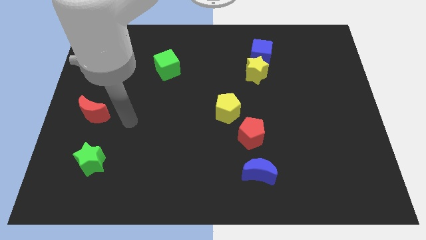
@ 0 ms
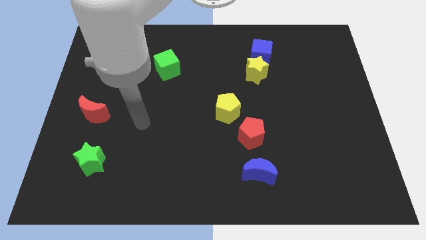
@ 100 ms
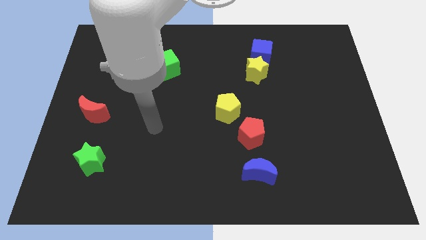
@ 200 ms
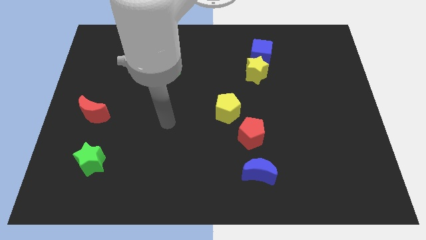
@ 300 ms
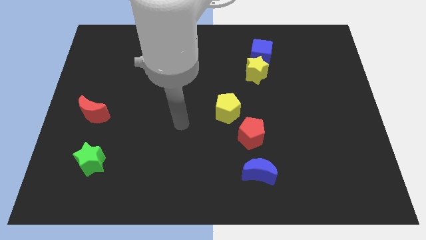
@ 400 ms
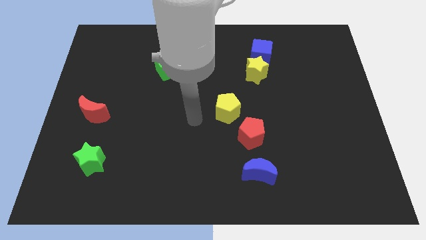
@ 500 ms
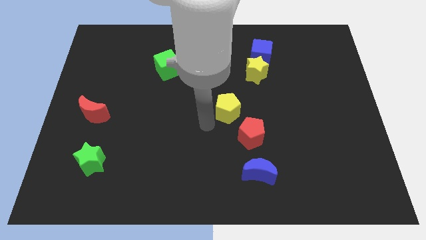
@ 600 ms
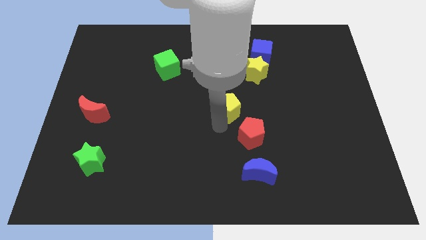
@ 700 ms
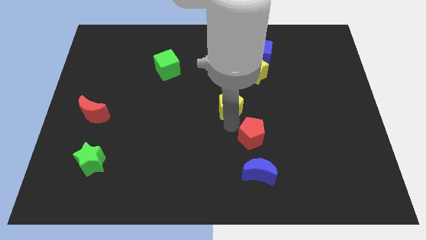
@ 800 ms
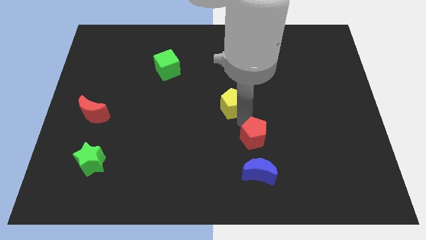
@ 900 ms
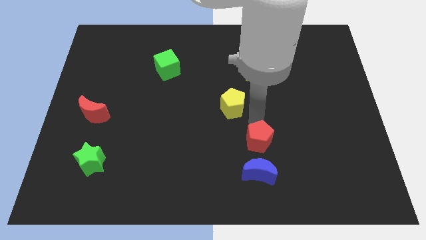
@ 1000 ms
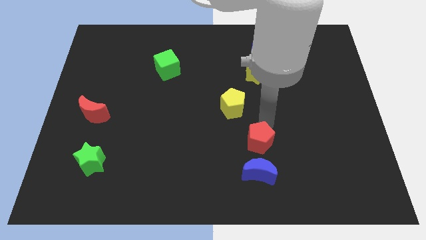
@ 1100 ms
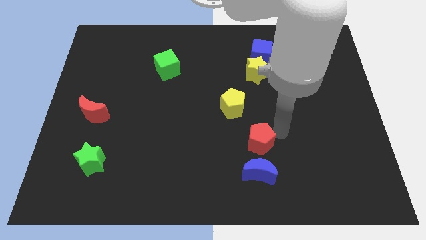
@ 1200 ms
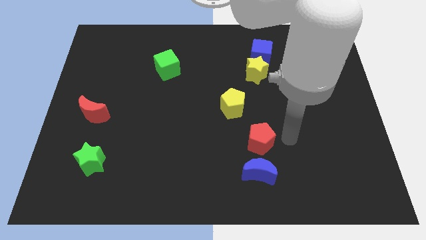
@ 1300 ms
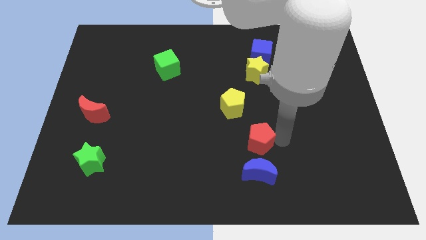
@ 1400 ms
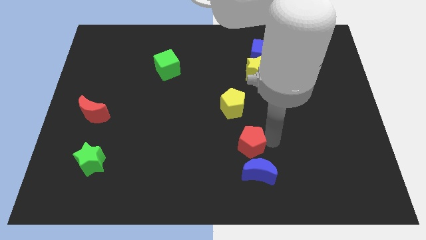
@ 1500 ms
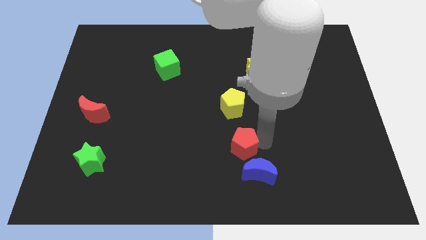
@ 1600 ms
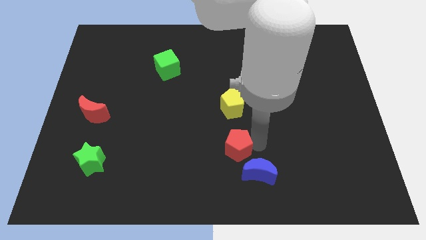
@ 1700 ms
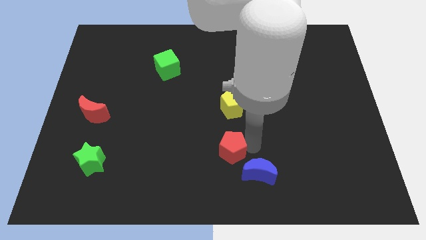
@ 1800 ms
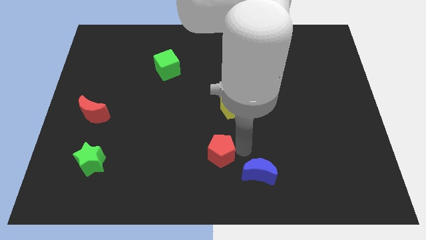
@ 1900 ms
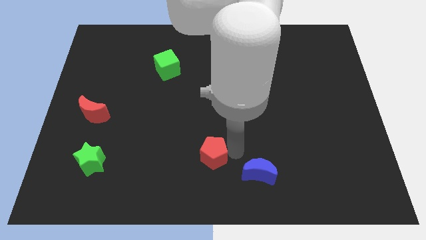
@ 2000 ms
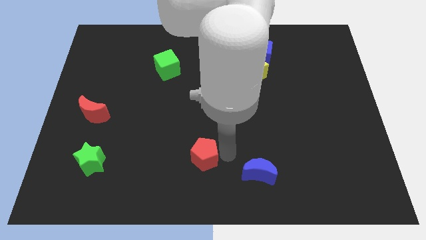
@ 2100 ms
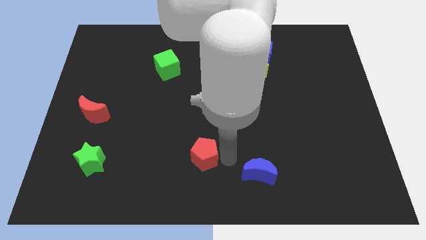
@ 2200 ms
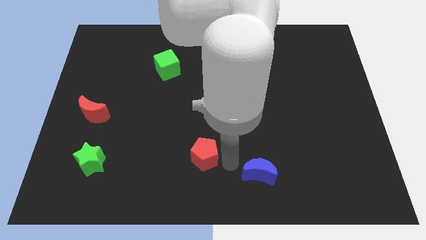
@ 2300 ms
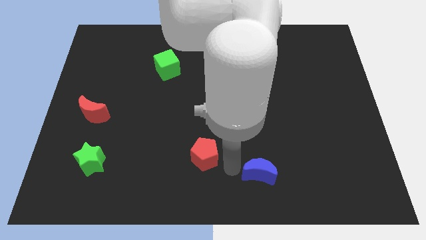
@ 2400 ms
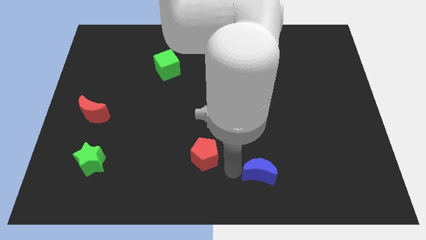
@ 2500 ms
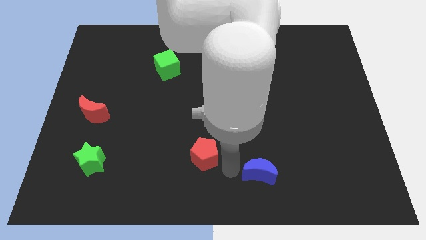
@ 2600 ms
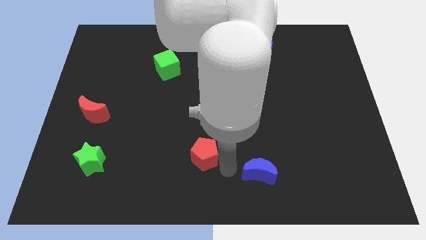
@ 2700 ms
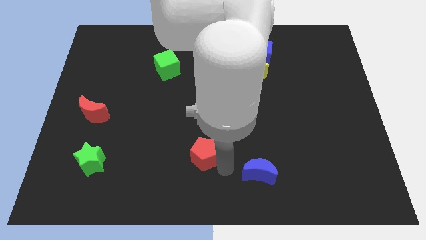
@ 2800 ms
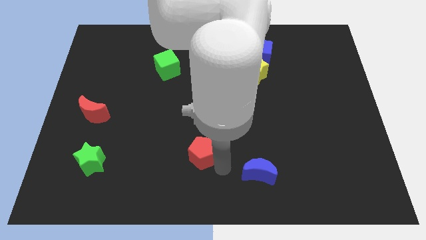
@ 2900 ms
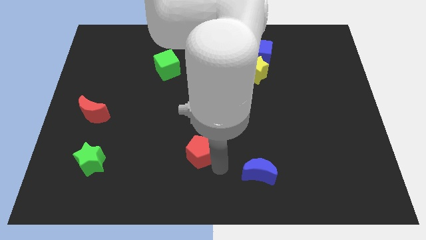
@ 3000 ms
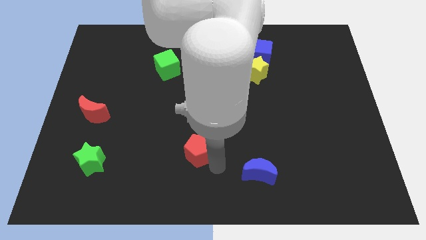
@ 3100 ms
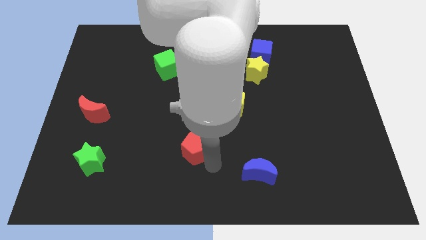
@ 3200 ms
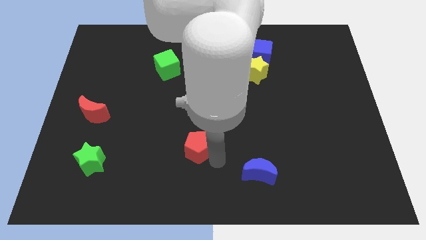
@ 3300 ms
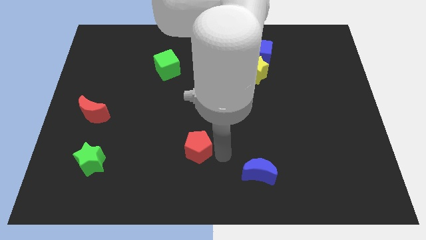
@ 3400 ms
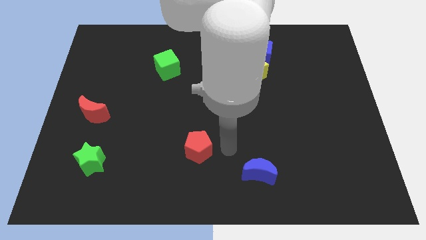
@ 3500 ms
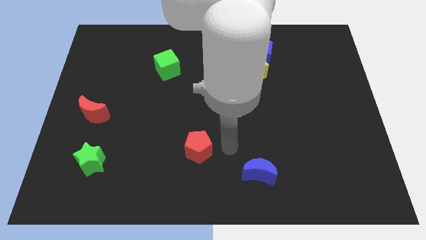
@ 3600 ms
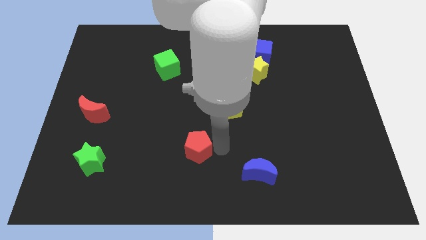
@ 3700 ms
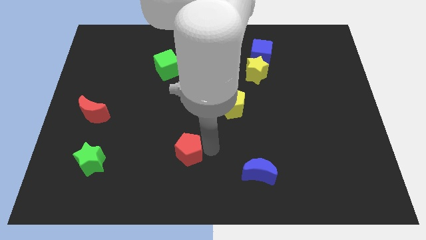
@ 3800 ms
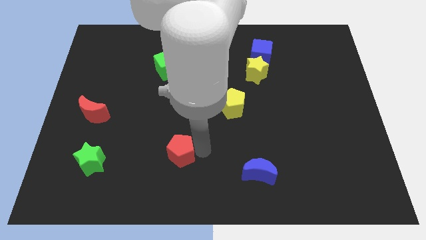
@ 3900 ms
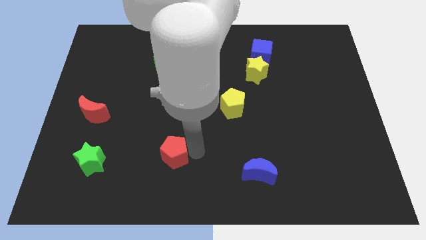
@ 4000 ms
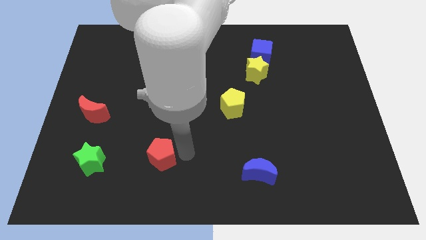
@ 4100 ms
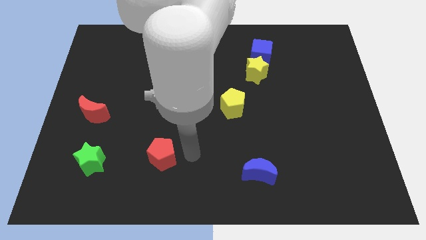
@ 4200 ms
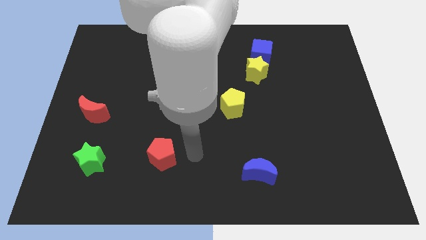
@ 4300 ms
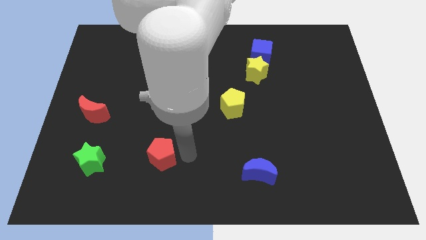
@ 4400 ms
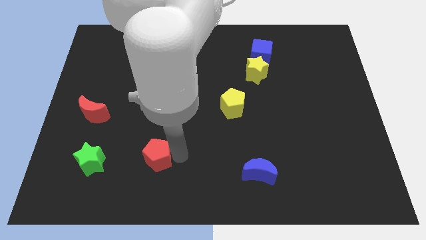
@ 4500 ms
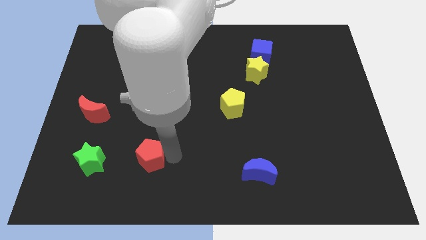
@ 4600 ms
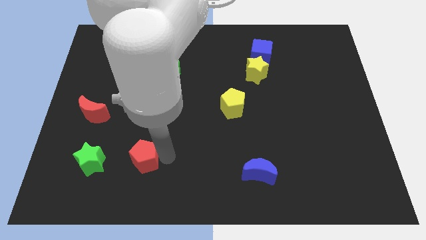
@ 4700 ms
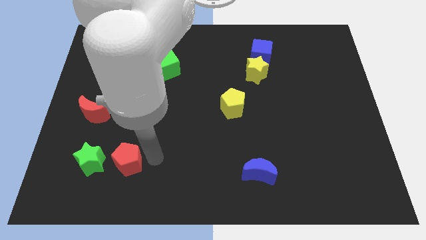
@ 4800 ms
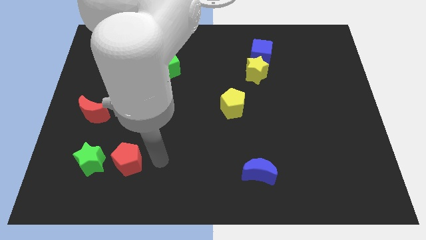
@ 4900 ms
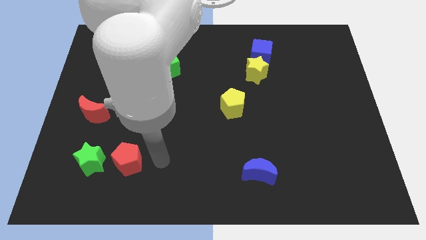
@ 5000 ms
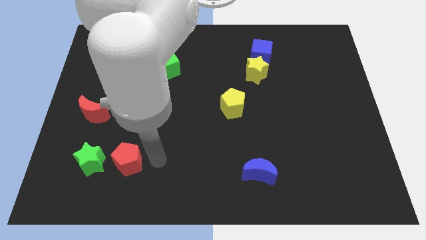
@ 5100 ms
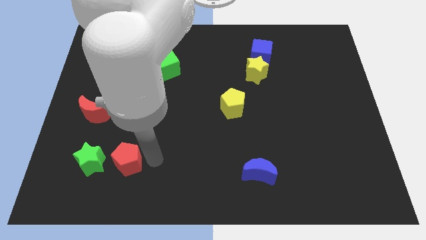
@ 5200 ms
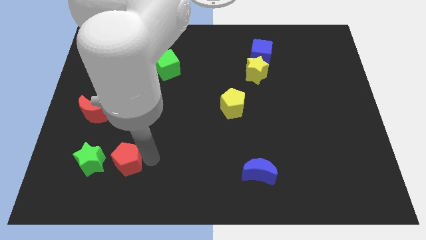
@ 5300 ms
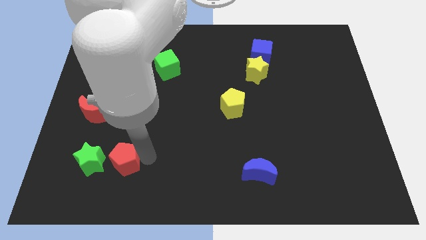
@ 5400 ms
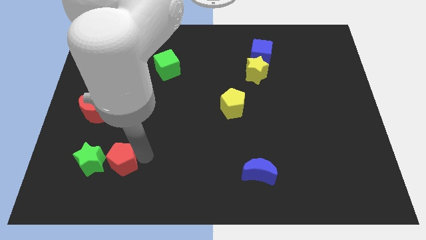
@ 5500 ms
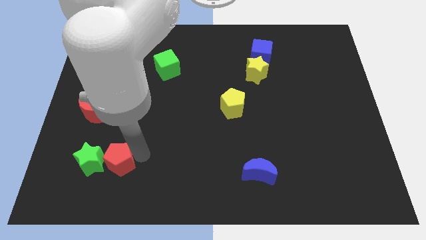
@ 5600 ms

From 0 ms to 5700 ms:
put the red pentagon towards the green star

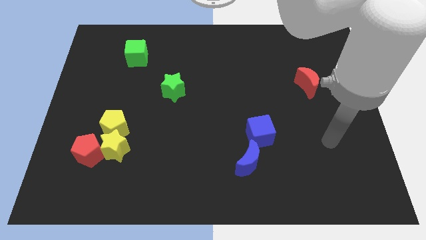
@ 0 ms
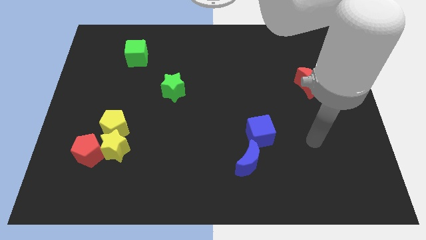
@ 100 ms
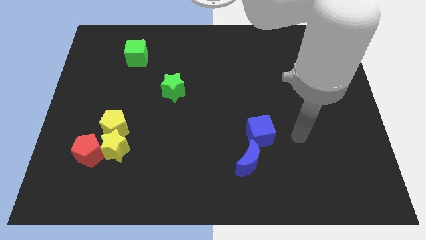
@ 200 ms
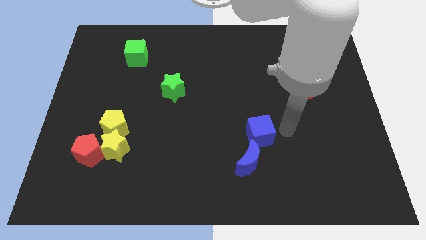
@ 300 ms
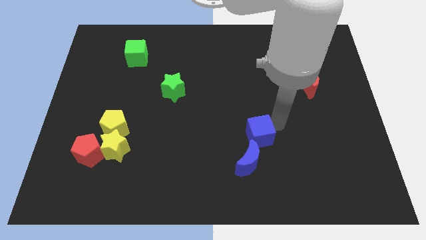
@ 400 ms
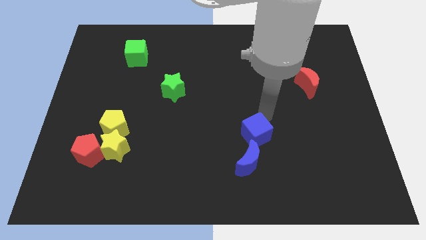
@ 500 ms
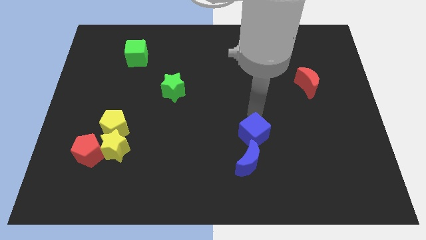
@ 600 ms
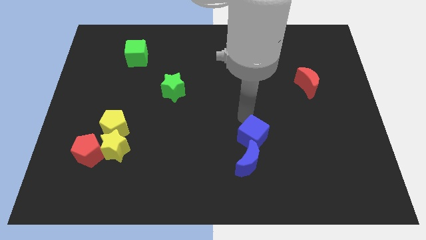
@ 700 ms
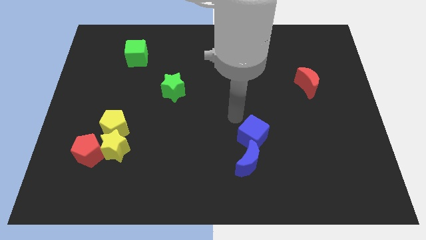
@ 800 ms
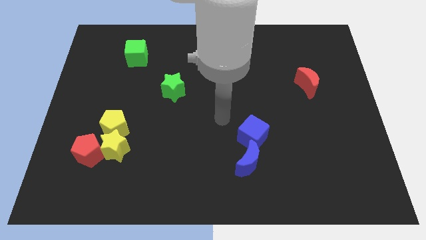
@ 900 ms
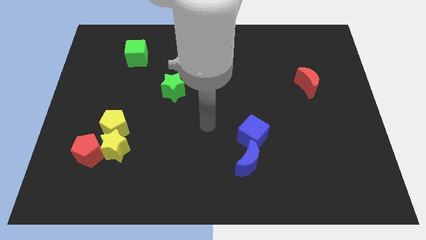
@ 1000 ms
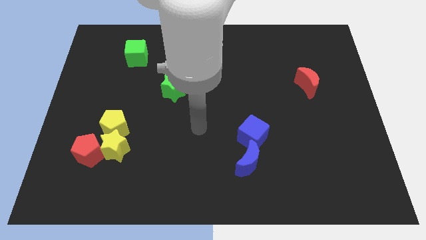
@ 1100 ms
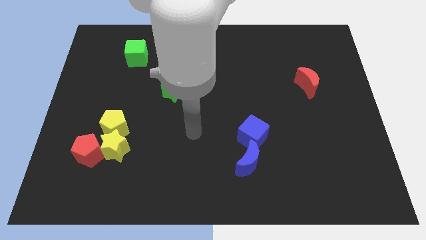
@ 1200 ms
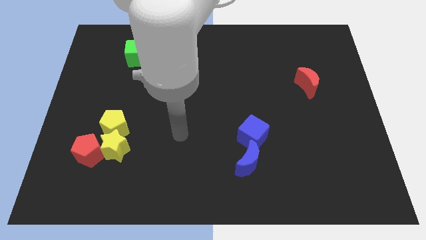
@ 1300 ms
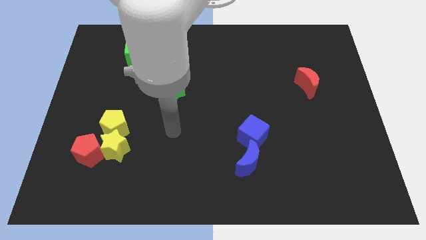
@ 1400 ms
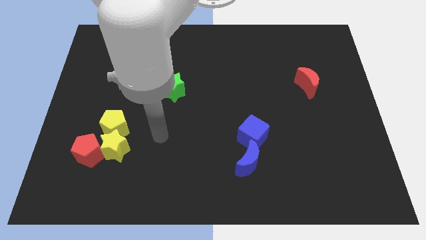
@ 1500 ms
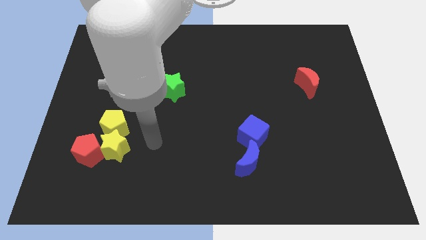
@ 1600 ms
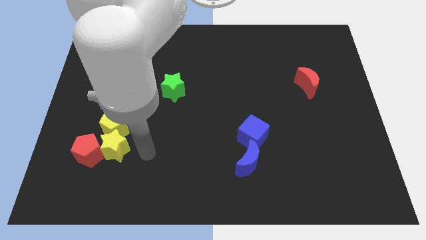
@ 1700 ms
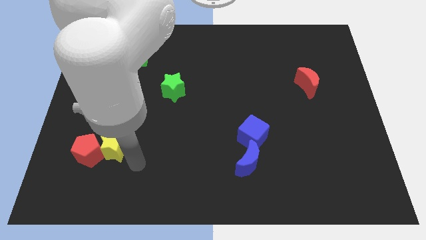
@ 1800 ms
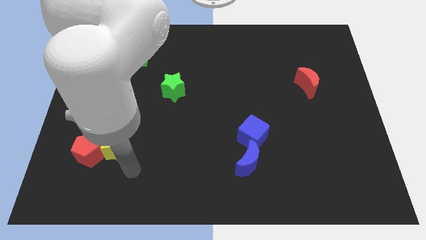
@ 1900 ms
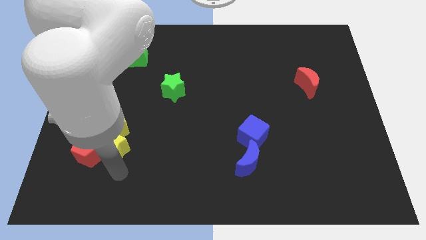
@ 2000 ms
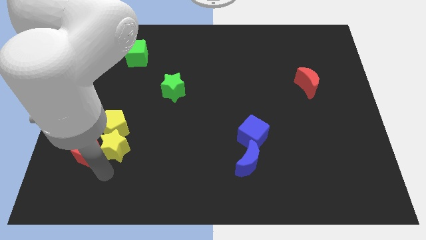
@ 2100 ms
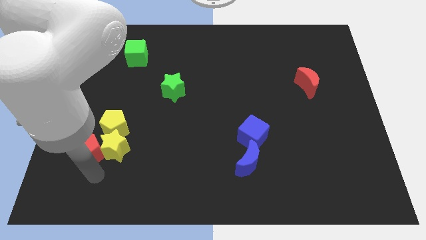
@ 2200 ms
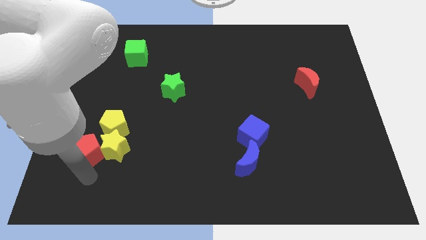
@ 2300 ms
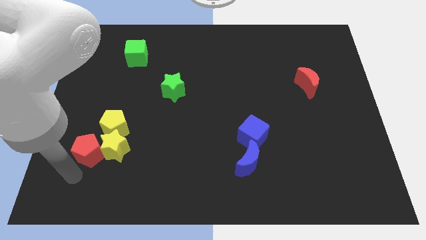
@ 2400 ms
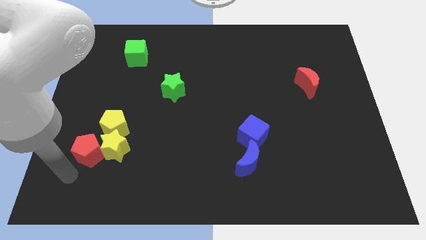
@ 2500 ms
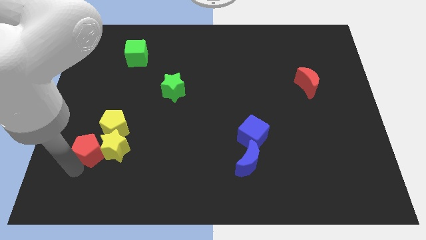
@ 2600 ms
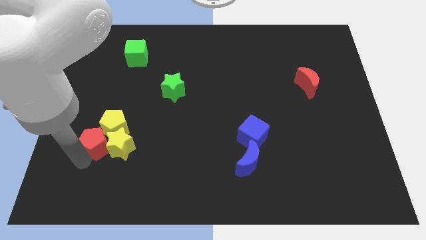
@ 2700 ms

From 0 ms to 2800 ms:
put the red pentagon next to the yellow pentagon
